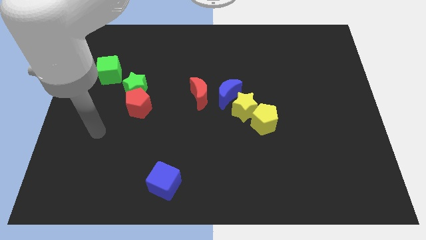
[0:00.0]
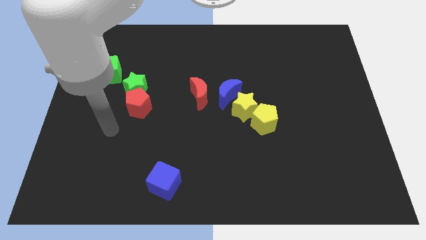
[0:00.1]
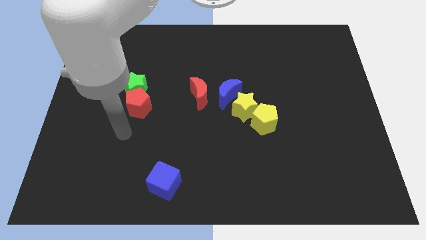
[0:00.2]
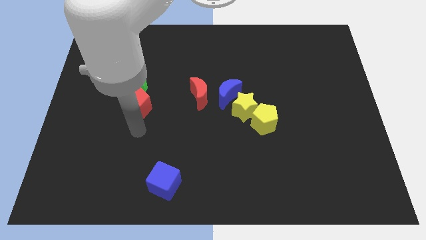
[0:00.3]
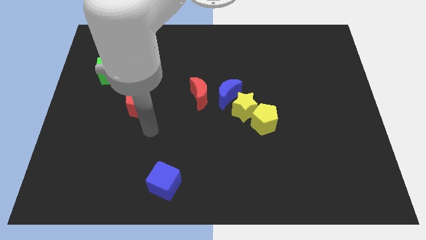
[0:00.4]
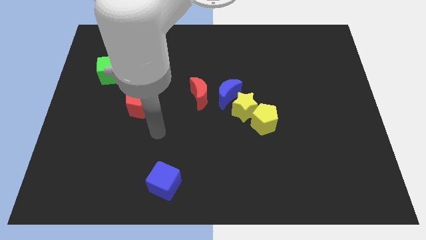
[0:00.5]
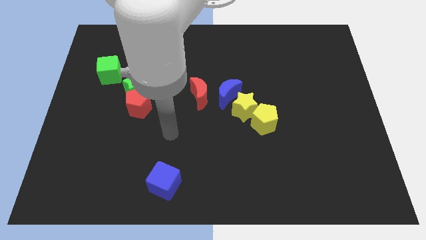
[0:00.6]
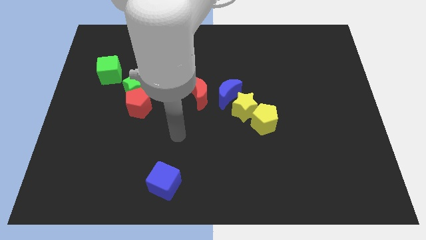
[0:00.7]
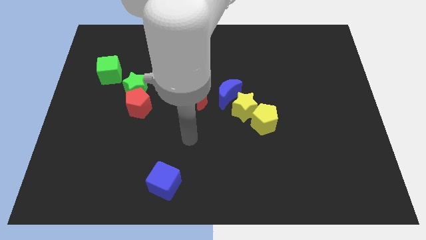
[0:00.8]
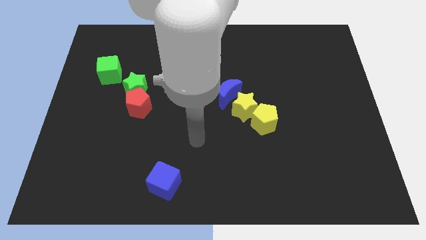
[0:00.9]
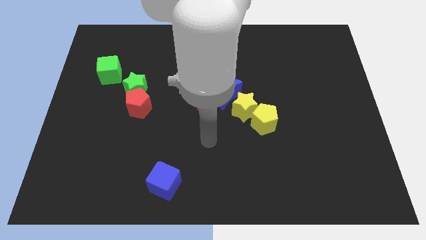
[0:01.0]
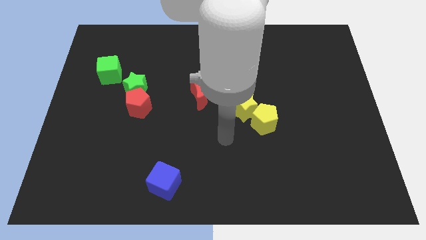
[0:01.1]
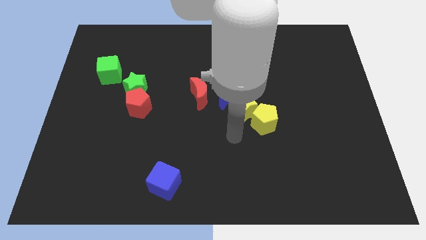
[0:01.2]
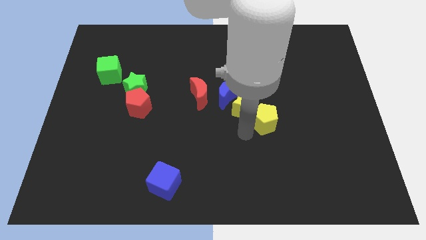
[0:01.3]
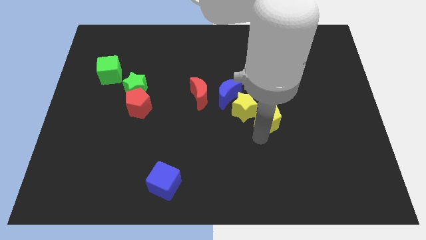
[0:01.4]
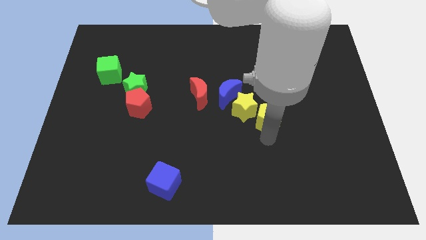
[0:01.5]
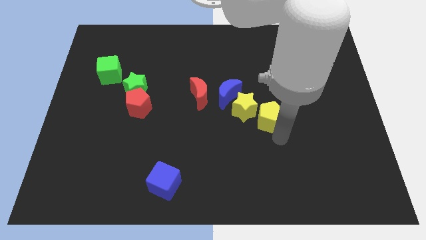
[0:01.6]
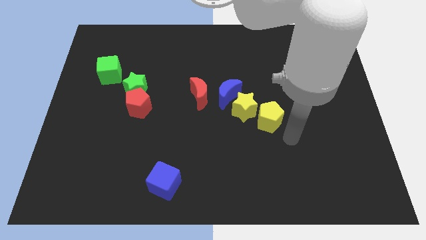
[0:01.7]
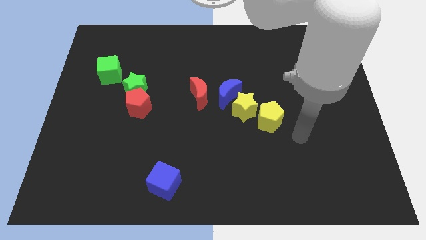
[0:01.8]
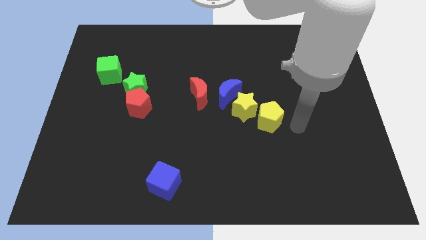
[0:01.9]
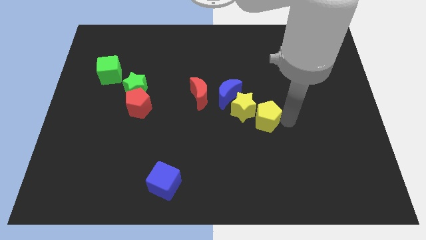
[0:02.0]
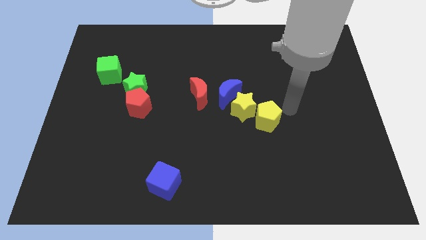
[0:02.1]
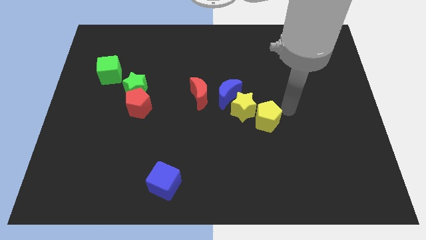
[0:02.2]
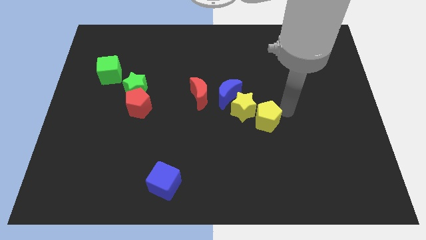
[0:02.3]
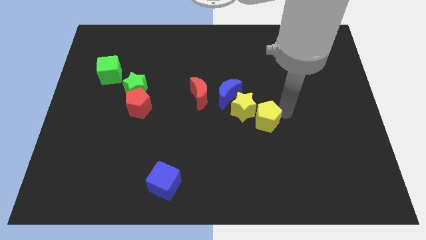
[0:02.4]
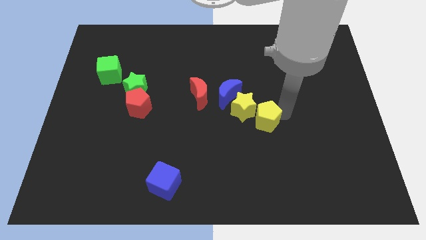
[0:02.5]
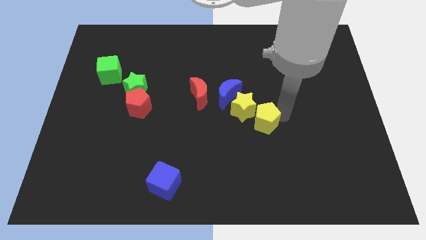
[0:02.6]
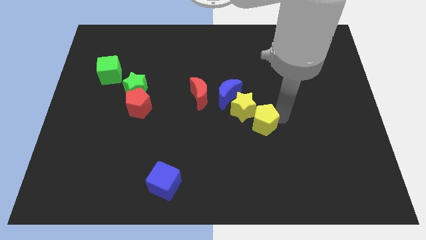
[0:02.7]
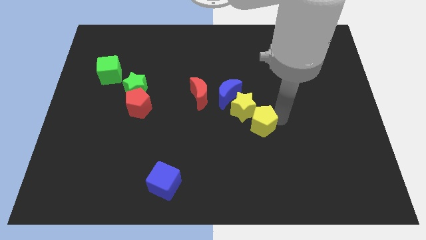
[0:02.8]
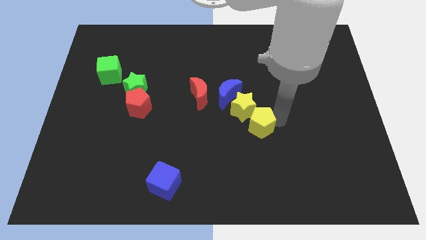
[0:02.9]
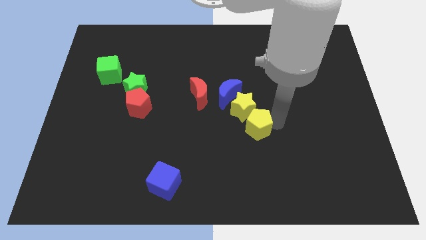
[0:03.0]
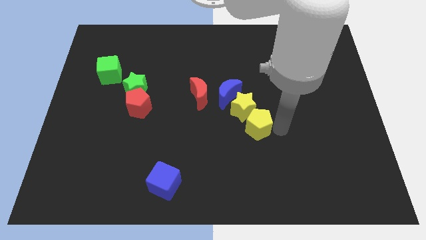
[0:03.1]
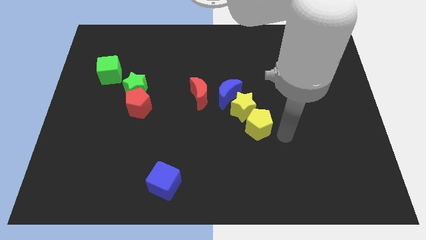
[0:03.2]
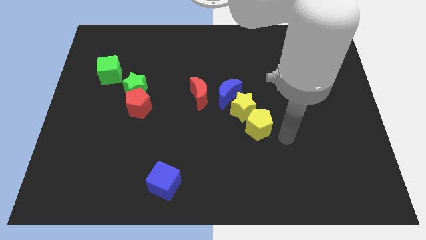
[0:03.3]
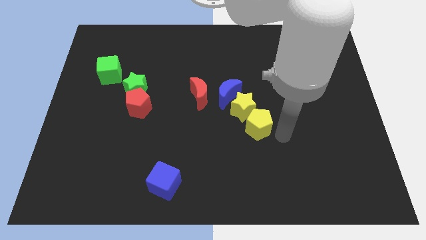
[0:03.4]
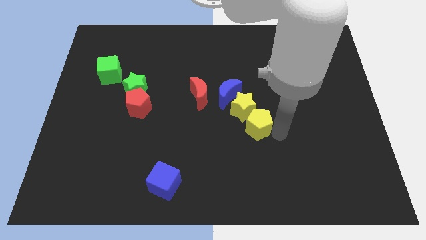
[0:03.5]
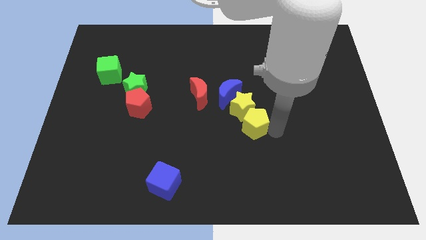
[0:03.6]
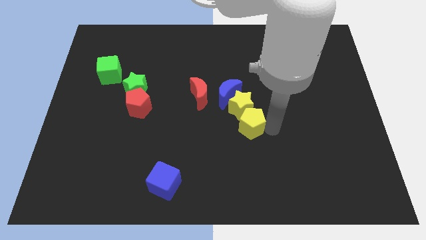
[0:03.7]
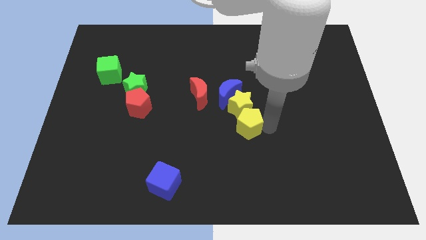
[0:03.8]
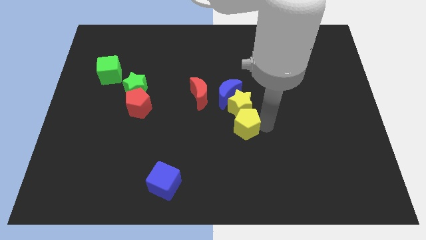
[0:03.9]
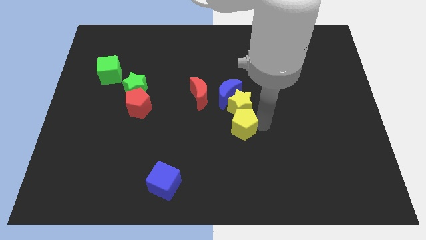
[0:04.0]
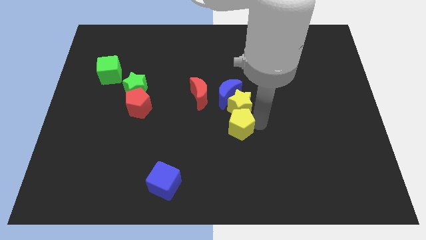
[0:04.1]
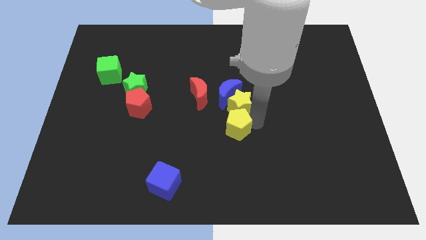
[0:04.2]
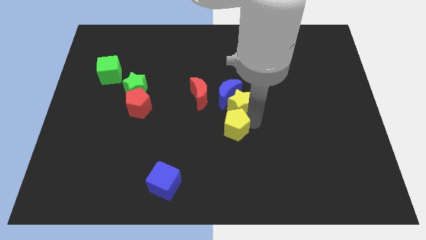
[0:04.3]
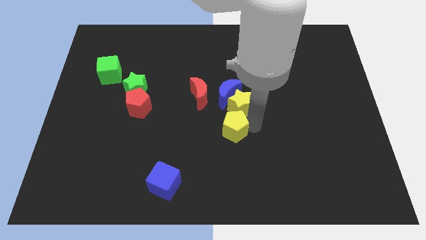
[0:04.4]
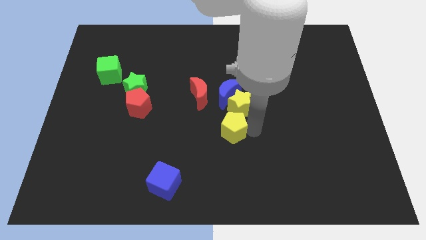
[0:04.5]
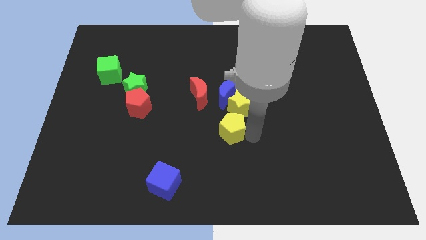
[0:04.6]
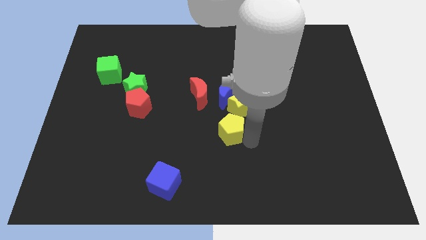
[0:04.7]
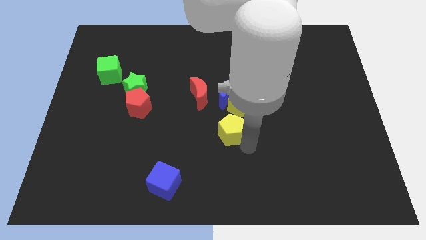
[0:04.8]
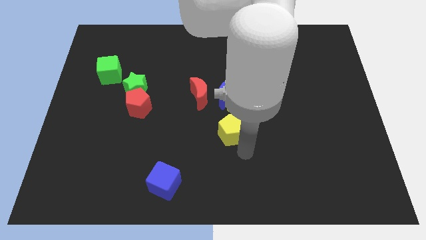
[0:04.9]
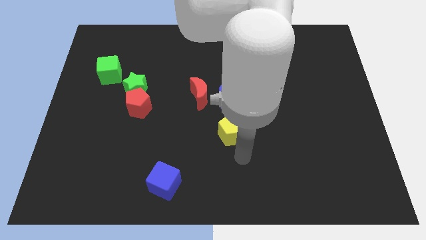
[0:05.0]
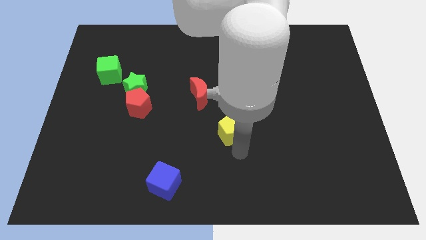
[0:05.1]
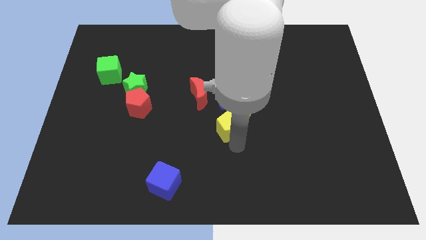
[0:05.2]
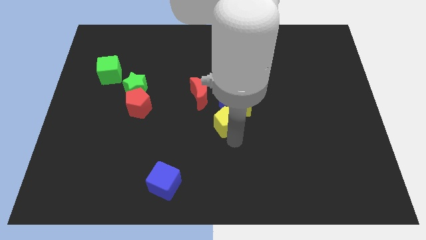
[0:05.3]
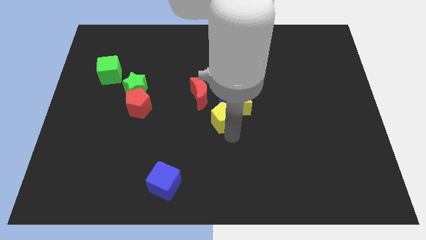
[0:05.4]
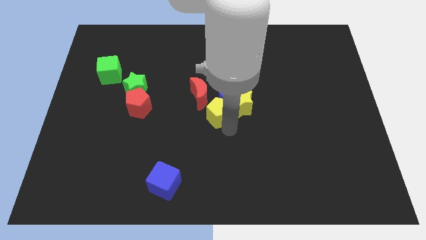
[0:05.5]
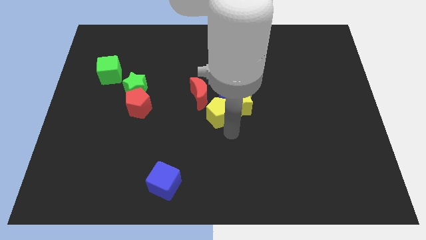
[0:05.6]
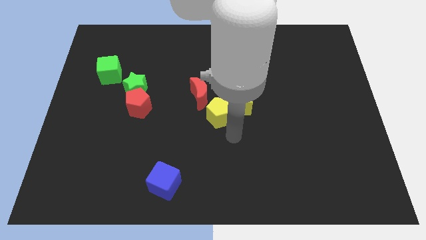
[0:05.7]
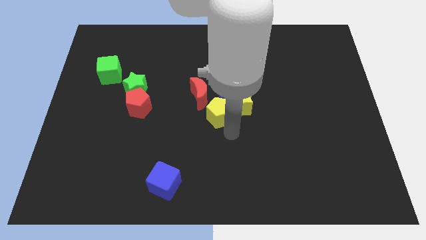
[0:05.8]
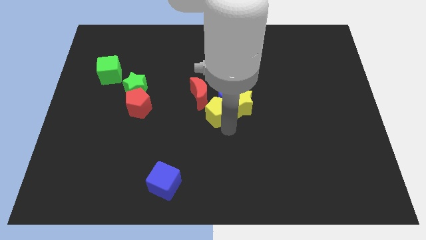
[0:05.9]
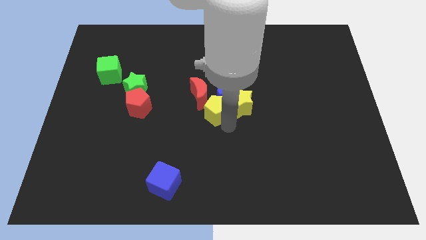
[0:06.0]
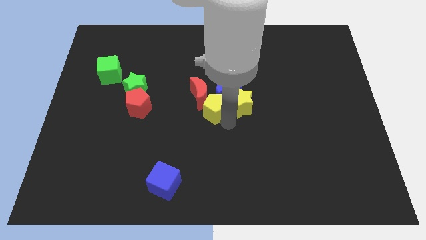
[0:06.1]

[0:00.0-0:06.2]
move the yellow pentagon to the red moon

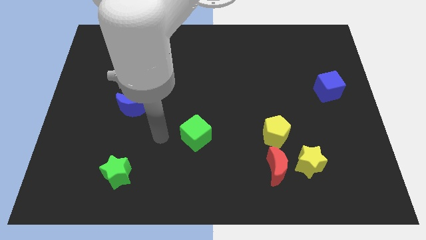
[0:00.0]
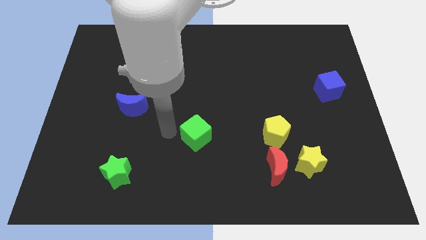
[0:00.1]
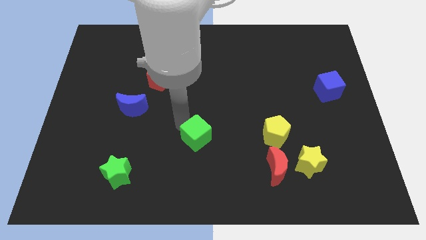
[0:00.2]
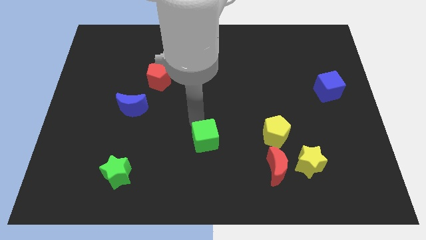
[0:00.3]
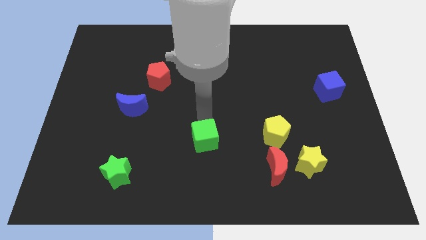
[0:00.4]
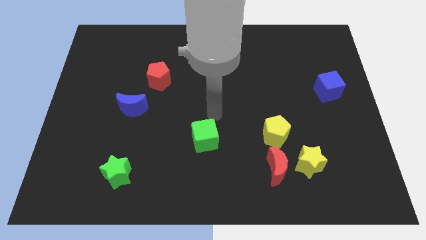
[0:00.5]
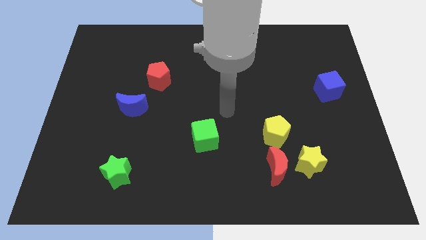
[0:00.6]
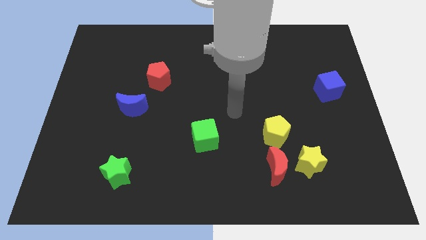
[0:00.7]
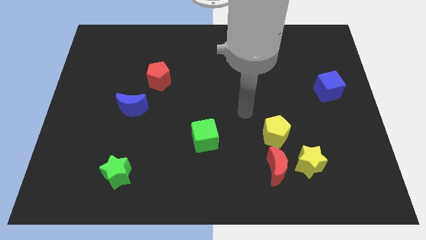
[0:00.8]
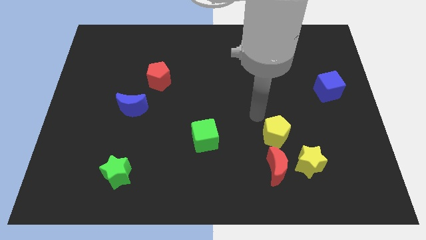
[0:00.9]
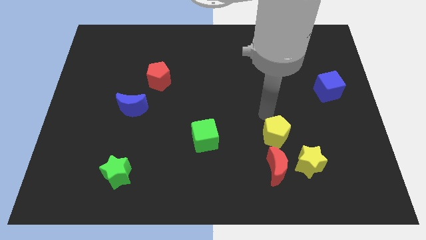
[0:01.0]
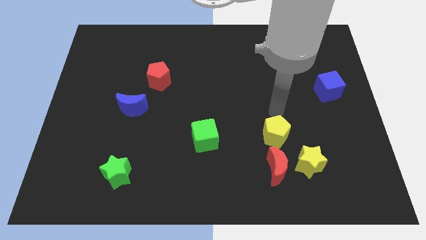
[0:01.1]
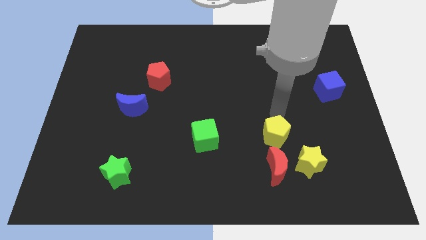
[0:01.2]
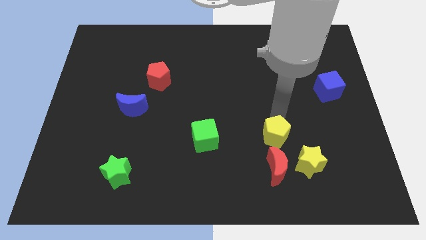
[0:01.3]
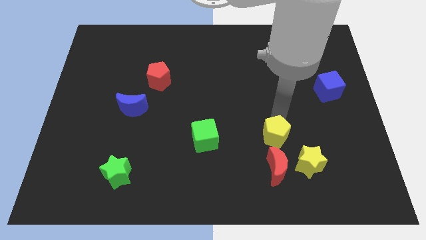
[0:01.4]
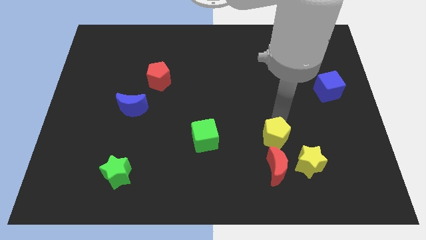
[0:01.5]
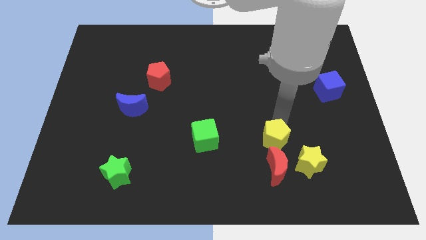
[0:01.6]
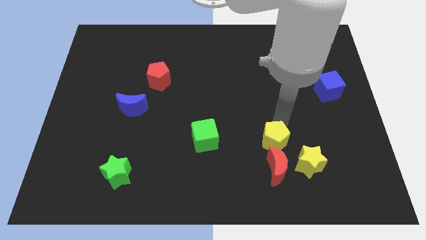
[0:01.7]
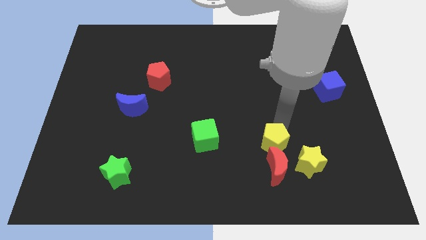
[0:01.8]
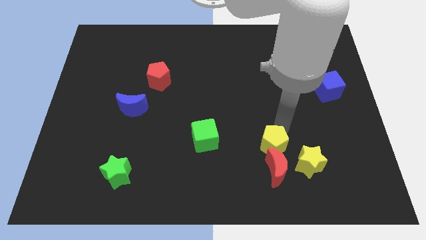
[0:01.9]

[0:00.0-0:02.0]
push the yellow pentagon to the red moon
